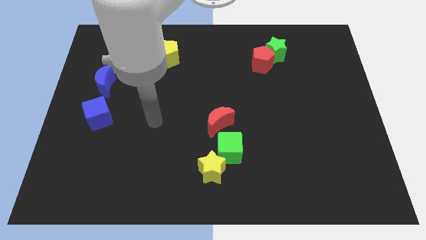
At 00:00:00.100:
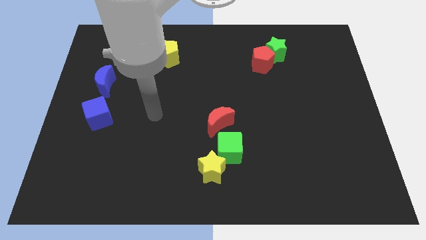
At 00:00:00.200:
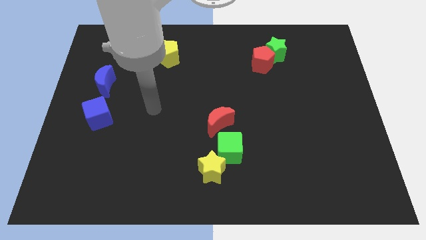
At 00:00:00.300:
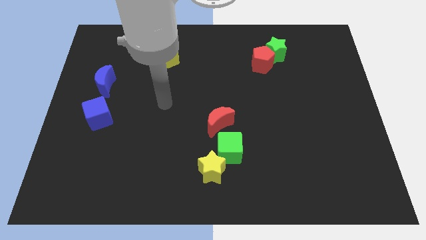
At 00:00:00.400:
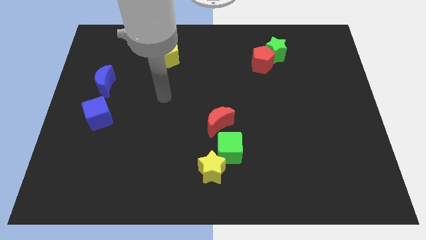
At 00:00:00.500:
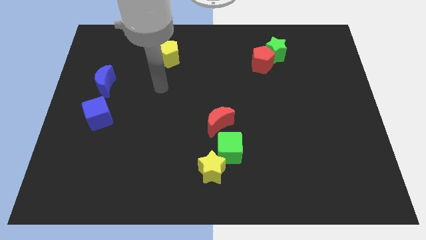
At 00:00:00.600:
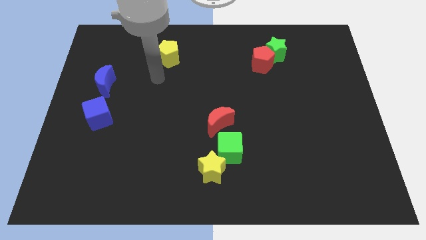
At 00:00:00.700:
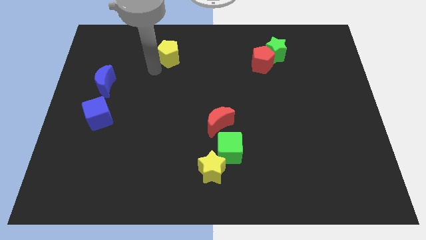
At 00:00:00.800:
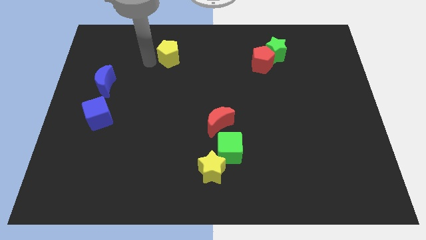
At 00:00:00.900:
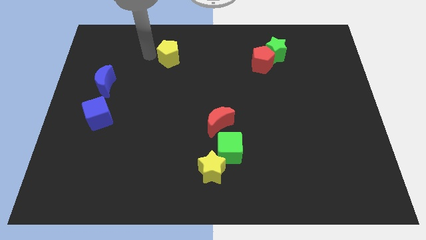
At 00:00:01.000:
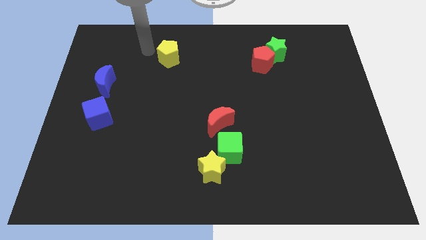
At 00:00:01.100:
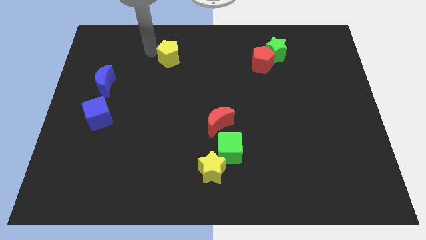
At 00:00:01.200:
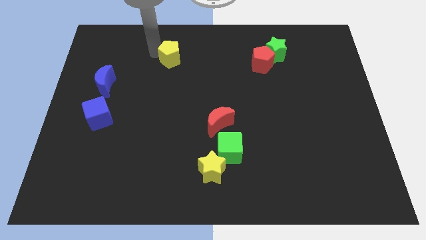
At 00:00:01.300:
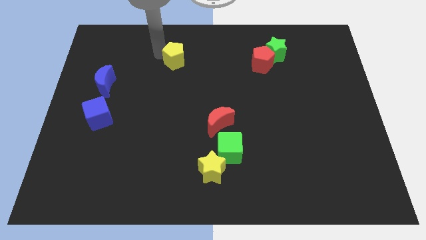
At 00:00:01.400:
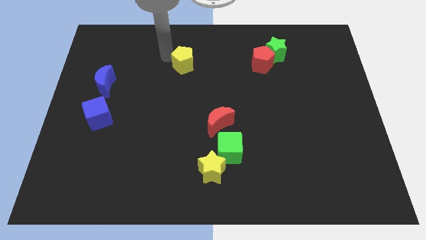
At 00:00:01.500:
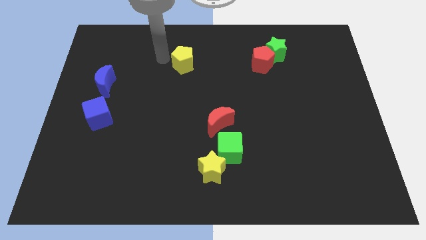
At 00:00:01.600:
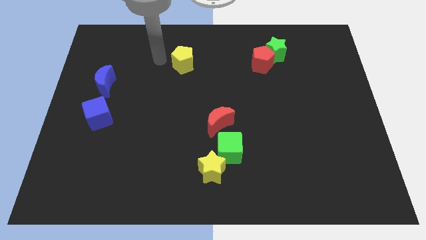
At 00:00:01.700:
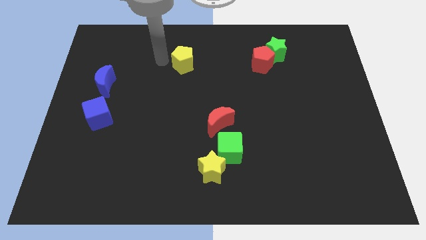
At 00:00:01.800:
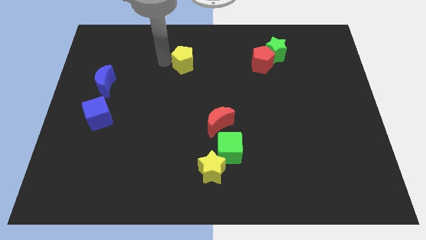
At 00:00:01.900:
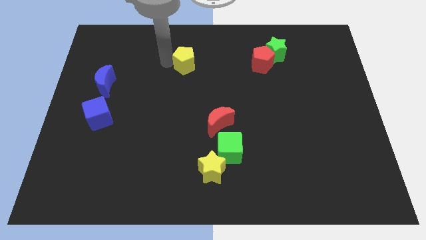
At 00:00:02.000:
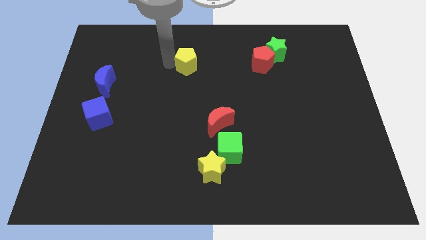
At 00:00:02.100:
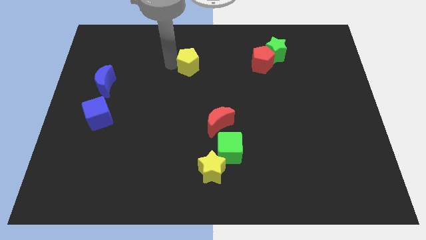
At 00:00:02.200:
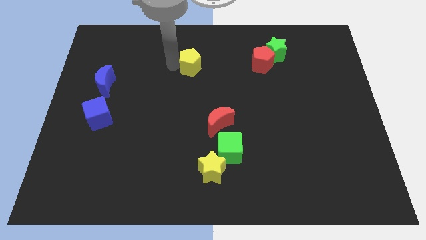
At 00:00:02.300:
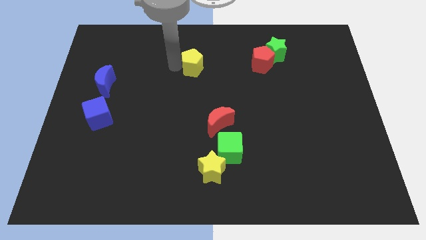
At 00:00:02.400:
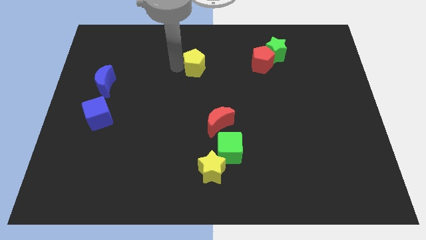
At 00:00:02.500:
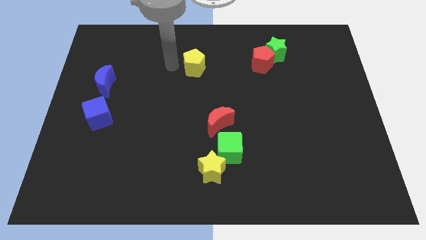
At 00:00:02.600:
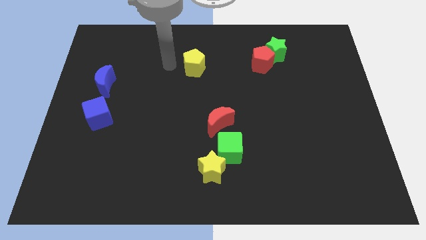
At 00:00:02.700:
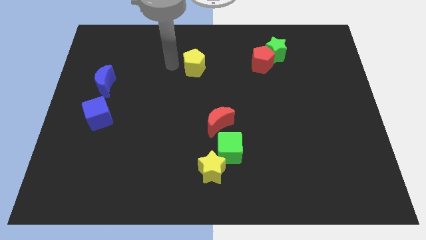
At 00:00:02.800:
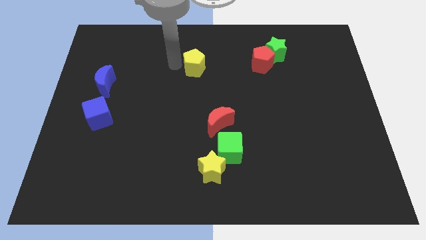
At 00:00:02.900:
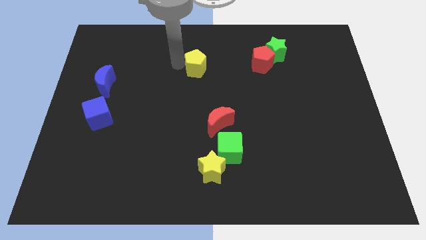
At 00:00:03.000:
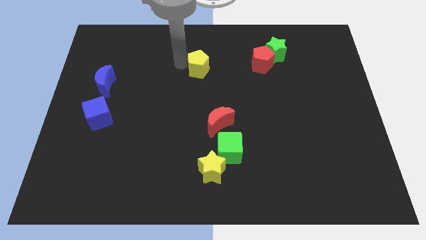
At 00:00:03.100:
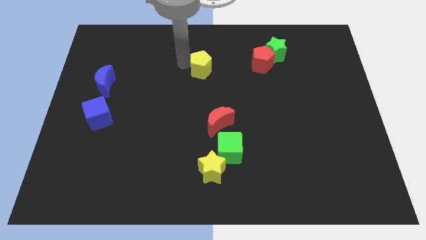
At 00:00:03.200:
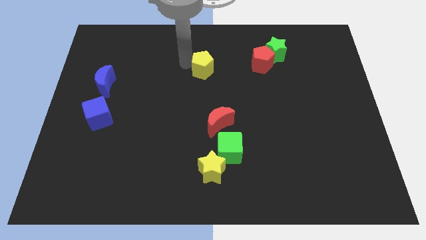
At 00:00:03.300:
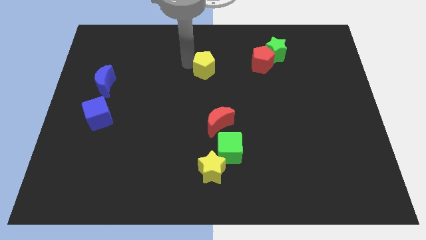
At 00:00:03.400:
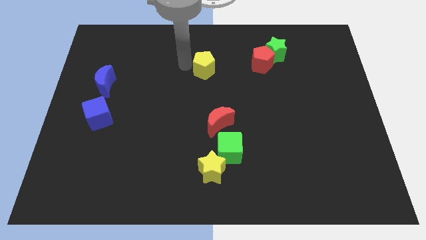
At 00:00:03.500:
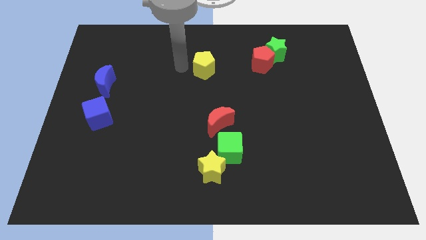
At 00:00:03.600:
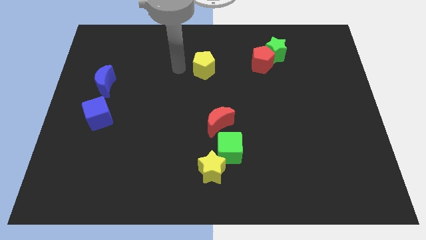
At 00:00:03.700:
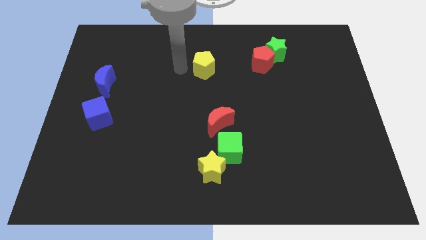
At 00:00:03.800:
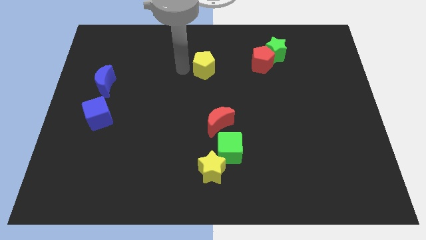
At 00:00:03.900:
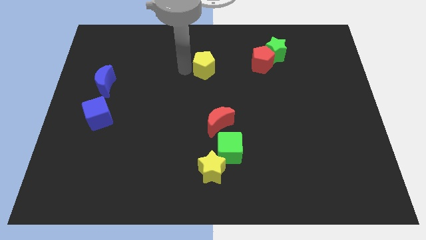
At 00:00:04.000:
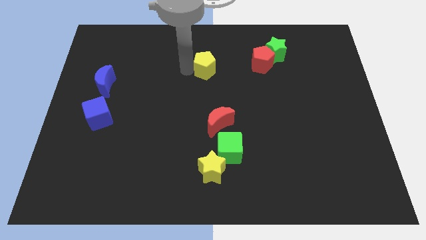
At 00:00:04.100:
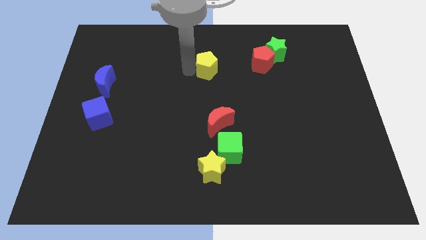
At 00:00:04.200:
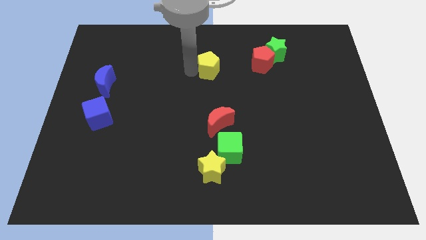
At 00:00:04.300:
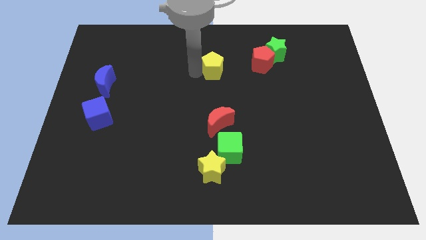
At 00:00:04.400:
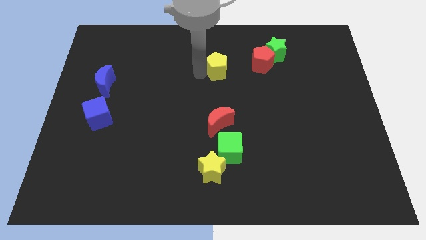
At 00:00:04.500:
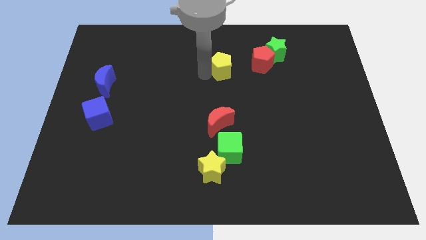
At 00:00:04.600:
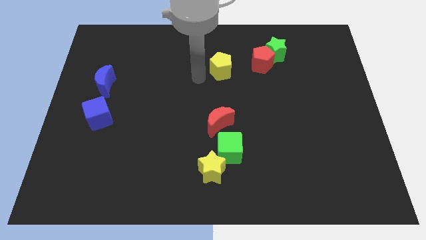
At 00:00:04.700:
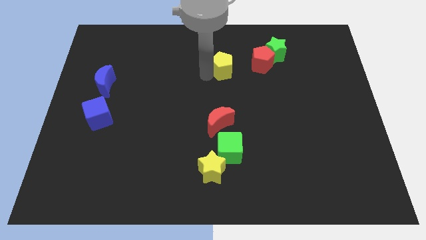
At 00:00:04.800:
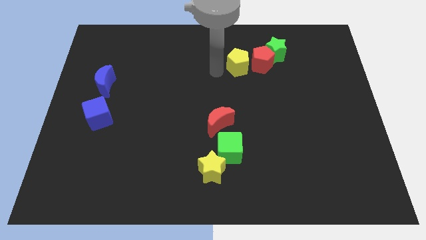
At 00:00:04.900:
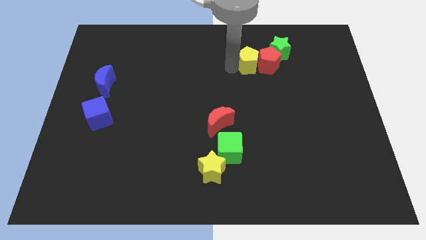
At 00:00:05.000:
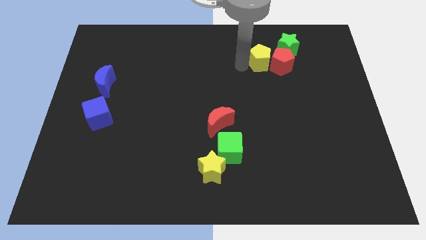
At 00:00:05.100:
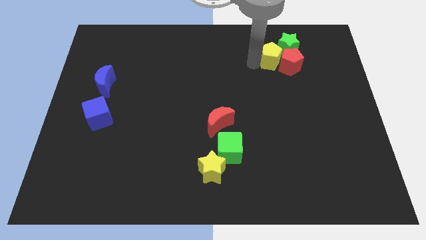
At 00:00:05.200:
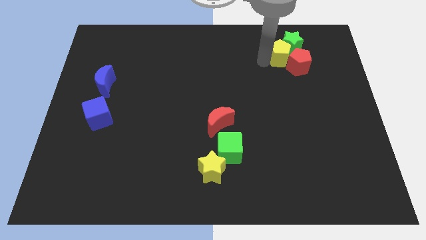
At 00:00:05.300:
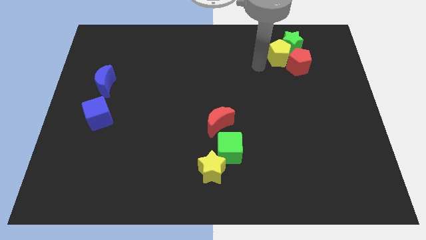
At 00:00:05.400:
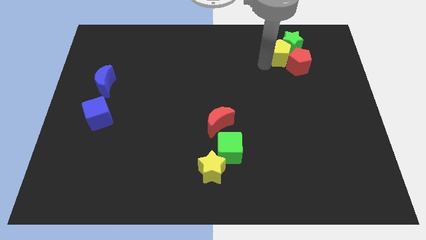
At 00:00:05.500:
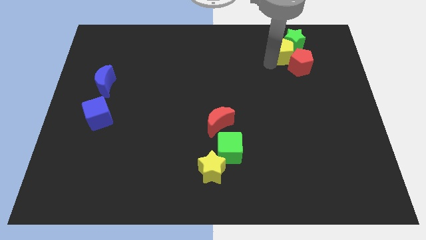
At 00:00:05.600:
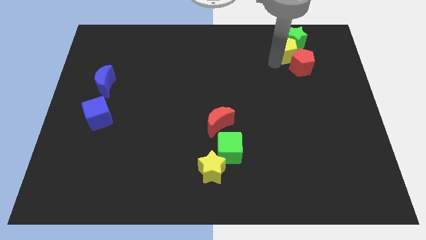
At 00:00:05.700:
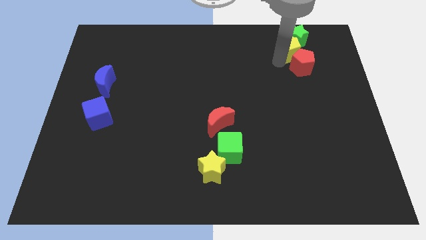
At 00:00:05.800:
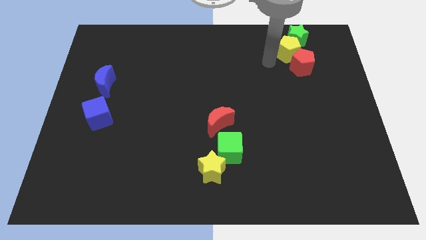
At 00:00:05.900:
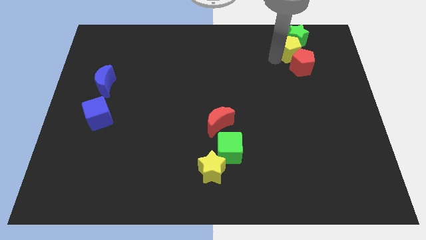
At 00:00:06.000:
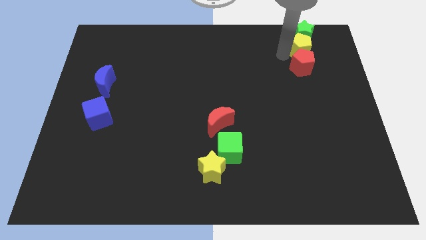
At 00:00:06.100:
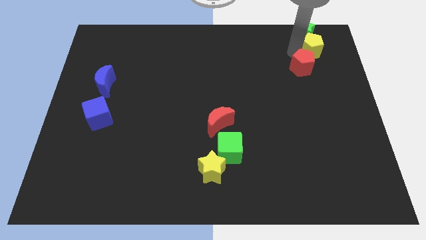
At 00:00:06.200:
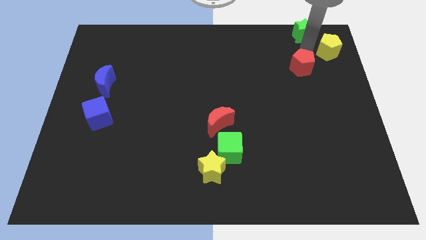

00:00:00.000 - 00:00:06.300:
push the yellow pentagon to the top right

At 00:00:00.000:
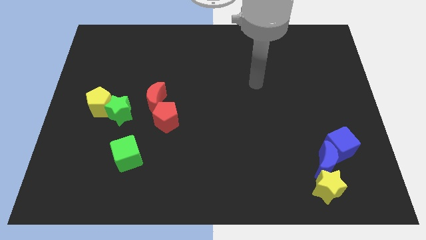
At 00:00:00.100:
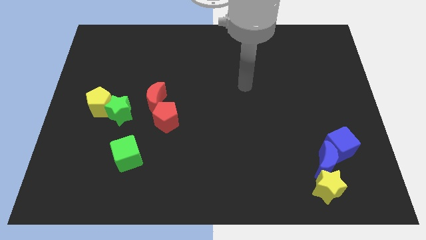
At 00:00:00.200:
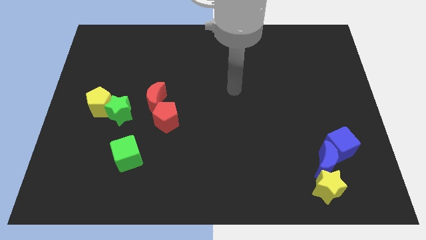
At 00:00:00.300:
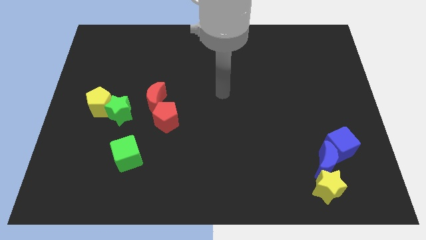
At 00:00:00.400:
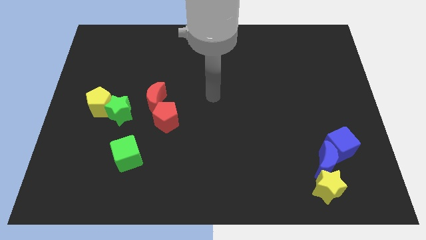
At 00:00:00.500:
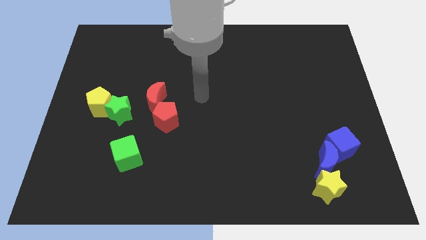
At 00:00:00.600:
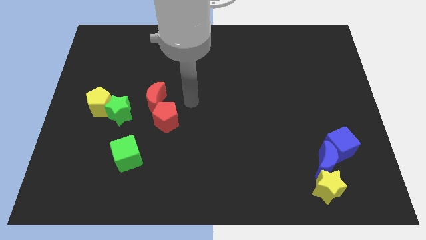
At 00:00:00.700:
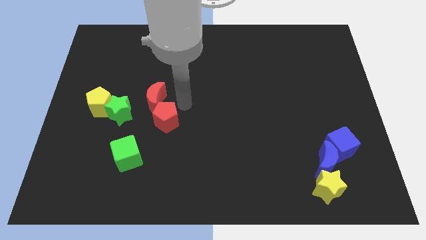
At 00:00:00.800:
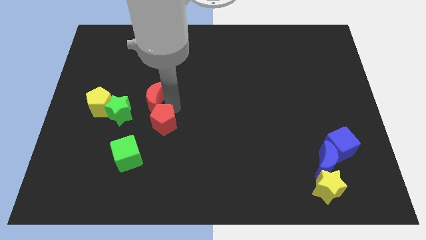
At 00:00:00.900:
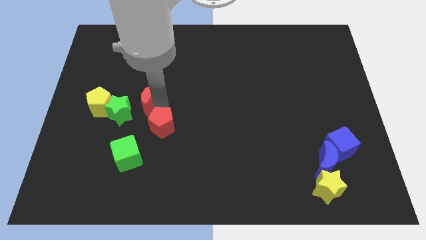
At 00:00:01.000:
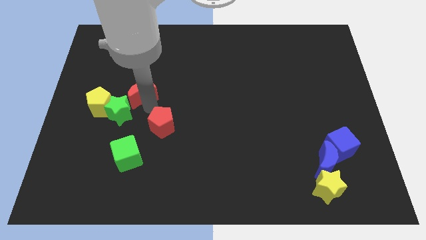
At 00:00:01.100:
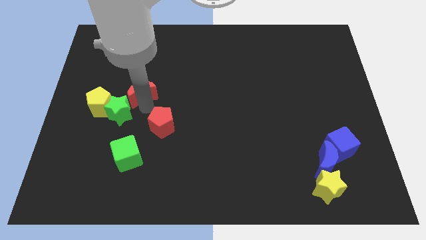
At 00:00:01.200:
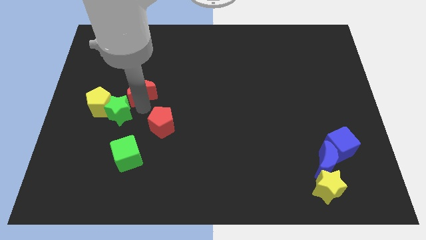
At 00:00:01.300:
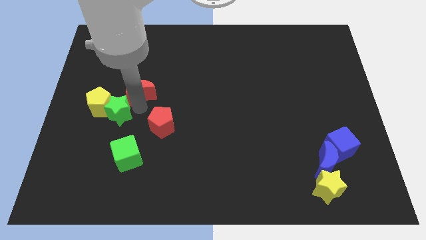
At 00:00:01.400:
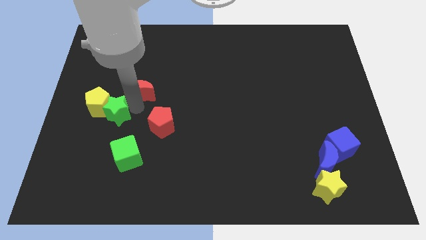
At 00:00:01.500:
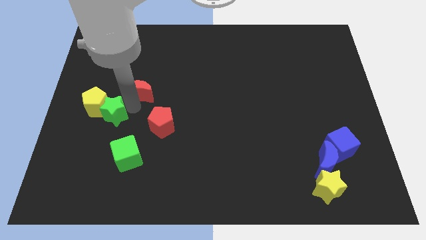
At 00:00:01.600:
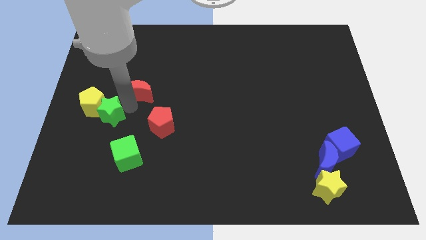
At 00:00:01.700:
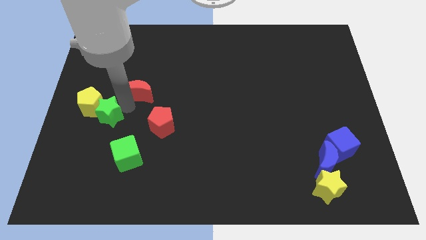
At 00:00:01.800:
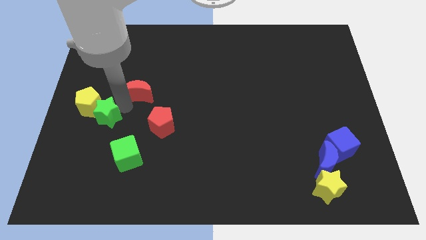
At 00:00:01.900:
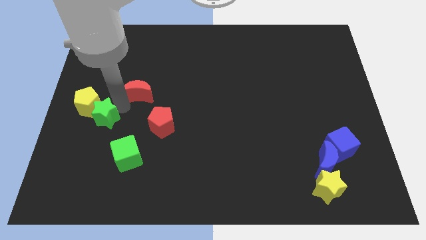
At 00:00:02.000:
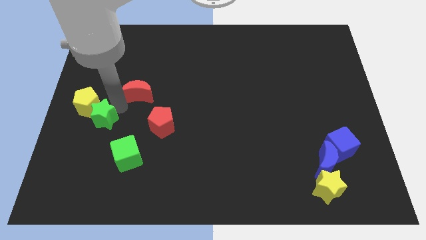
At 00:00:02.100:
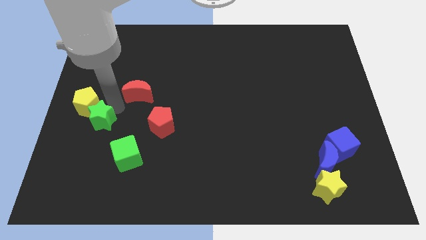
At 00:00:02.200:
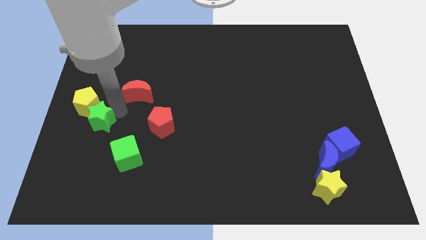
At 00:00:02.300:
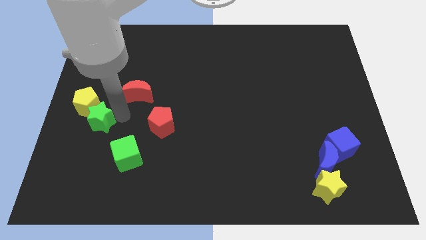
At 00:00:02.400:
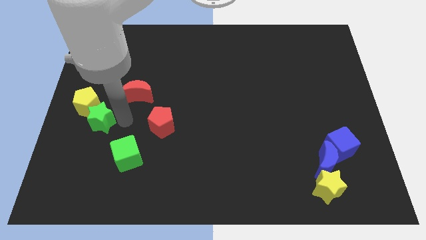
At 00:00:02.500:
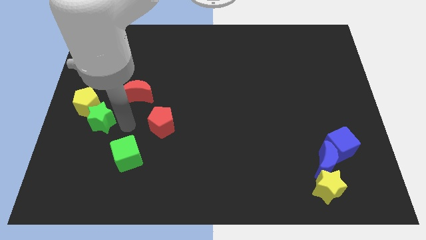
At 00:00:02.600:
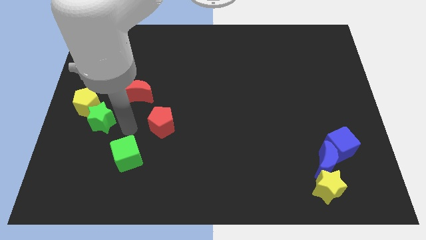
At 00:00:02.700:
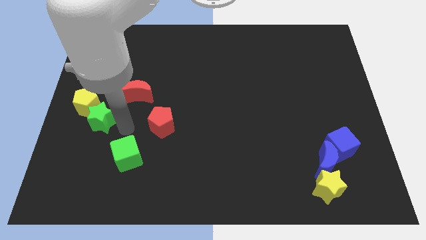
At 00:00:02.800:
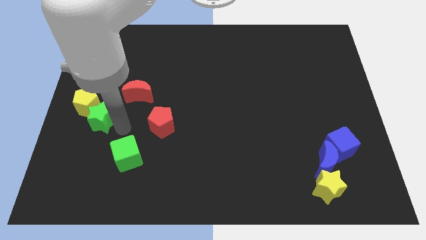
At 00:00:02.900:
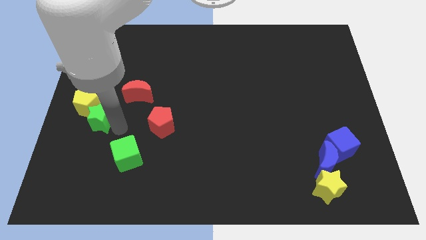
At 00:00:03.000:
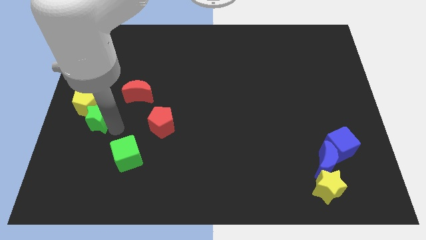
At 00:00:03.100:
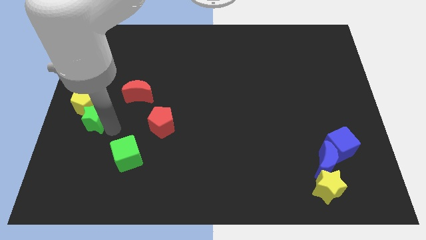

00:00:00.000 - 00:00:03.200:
put the green star to the left side
